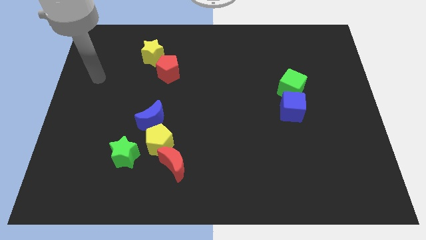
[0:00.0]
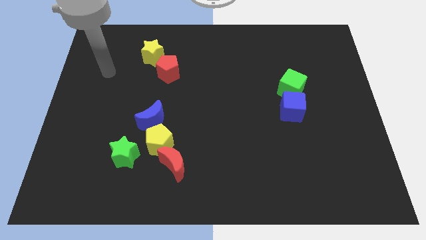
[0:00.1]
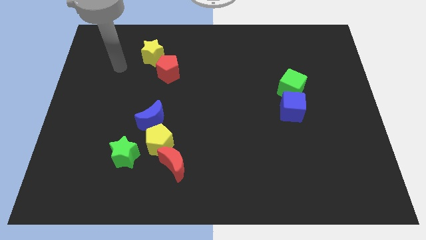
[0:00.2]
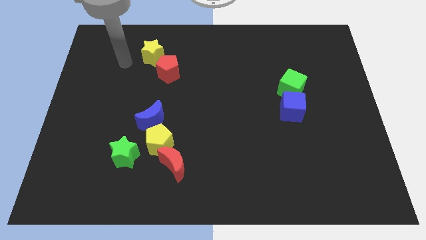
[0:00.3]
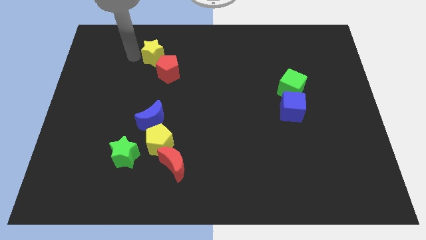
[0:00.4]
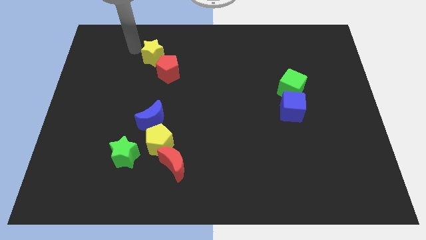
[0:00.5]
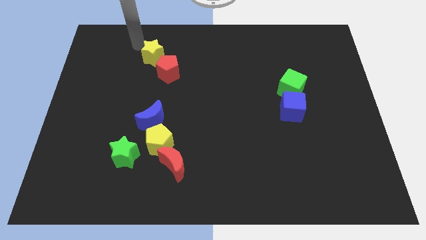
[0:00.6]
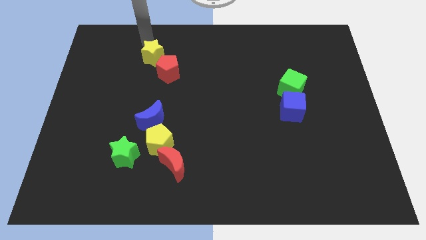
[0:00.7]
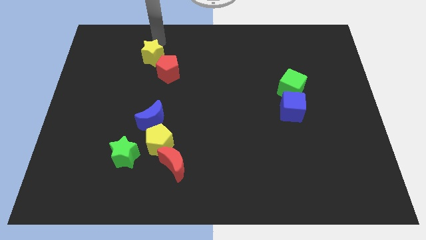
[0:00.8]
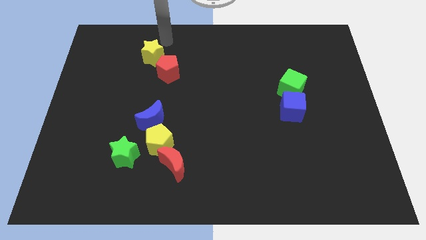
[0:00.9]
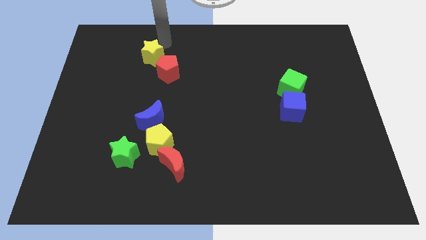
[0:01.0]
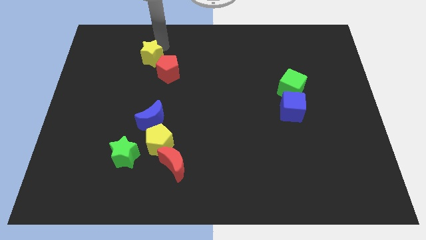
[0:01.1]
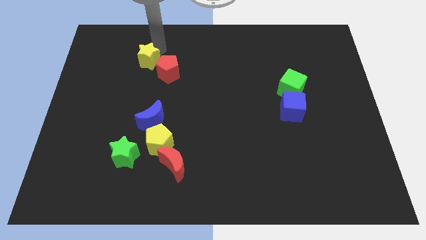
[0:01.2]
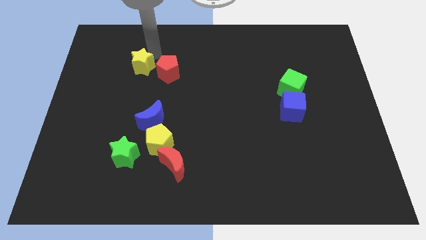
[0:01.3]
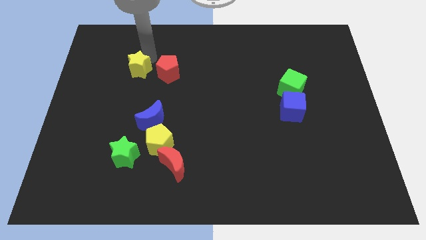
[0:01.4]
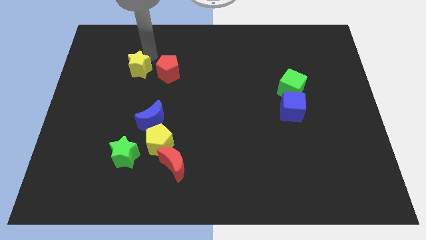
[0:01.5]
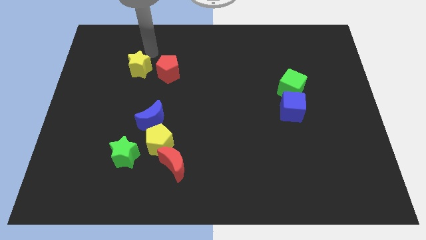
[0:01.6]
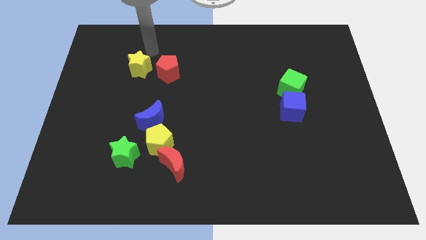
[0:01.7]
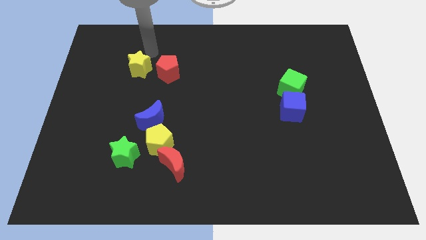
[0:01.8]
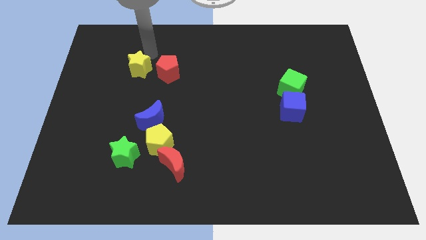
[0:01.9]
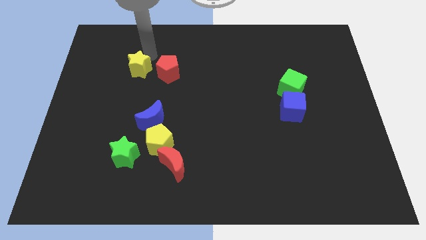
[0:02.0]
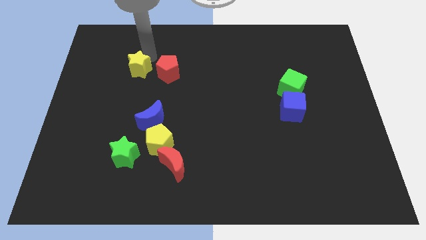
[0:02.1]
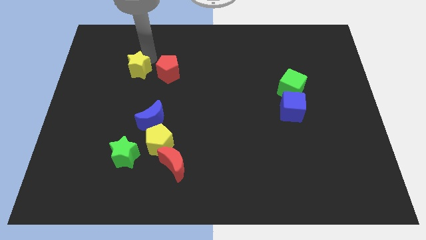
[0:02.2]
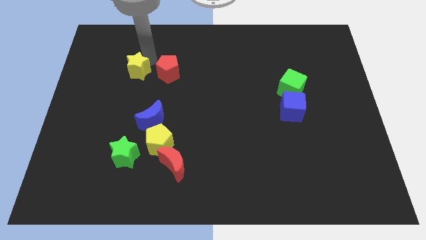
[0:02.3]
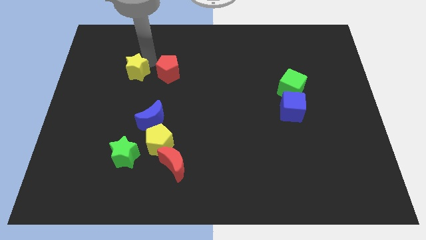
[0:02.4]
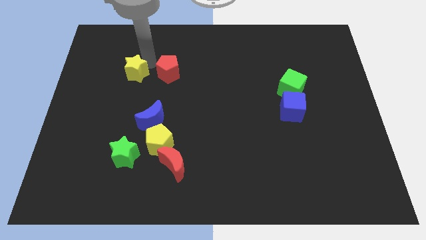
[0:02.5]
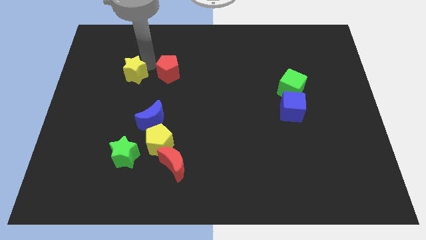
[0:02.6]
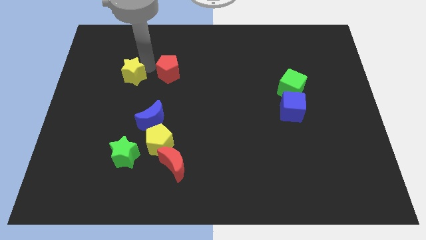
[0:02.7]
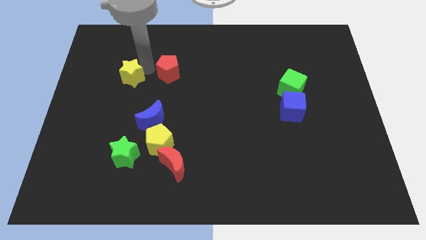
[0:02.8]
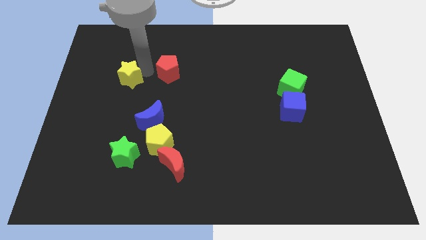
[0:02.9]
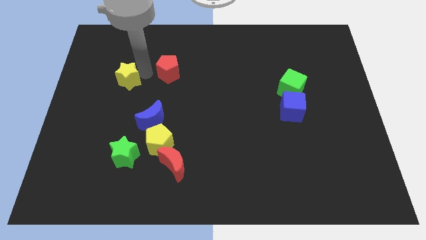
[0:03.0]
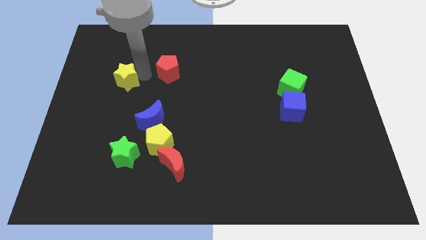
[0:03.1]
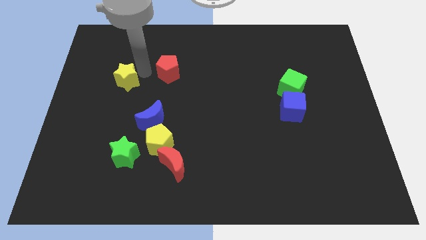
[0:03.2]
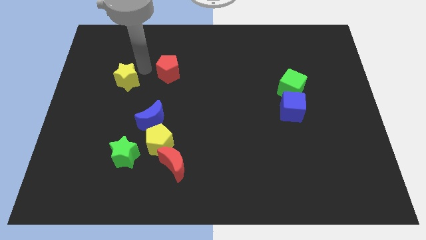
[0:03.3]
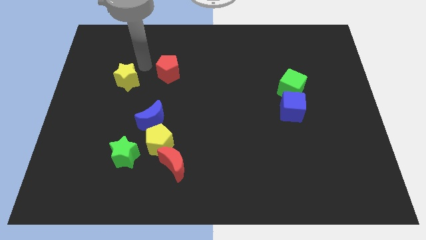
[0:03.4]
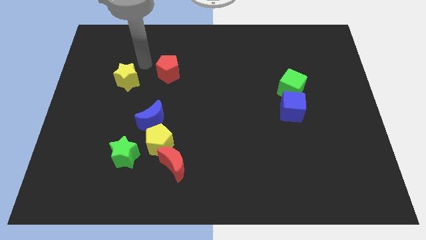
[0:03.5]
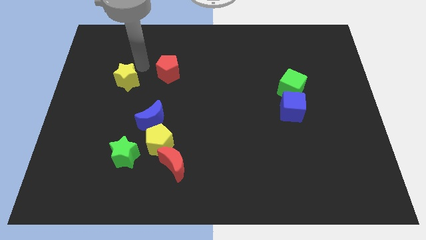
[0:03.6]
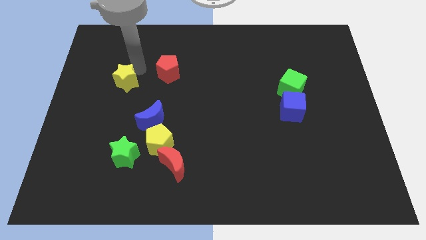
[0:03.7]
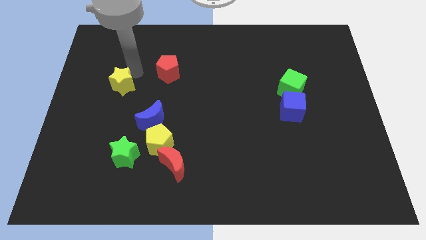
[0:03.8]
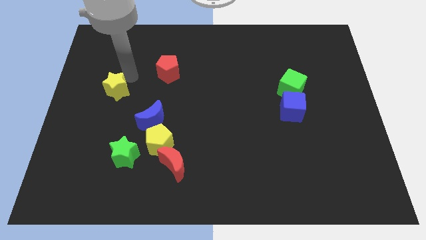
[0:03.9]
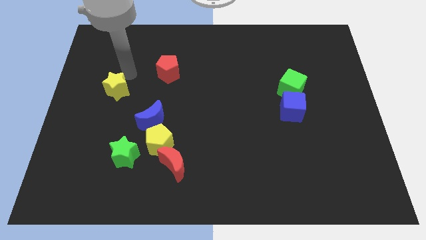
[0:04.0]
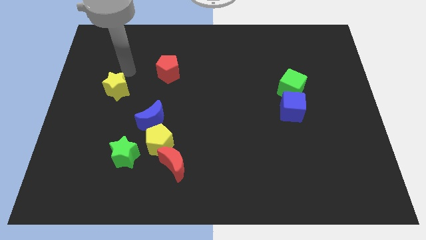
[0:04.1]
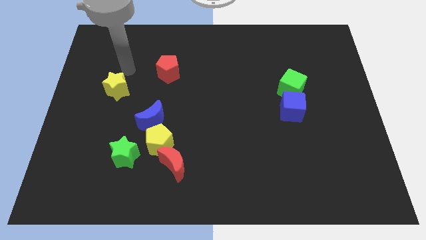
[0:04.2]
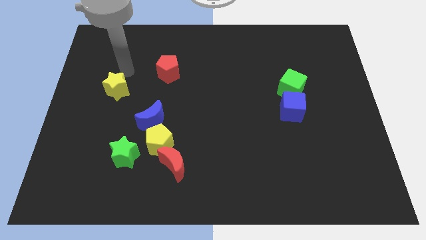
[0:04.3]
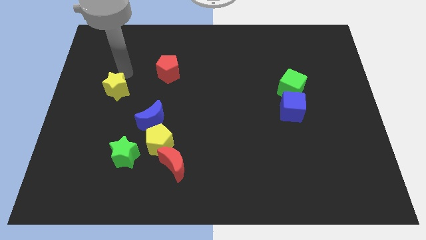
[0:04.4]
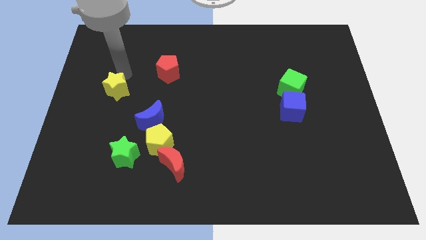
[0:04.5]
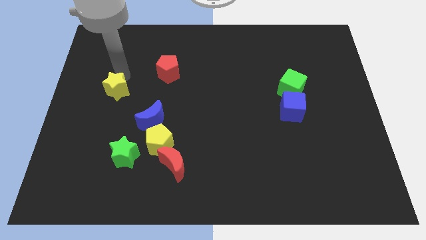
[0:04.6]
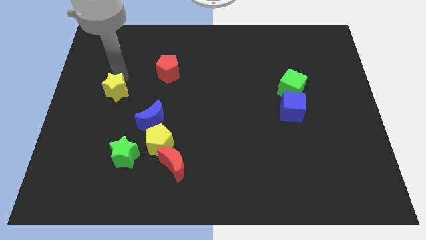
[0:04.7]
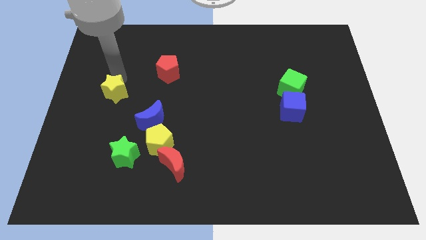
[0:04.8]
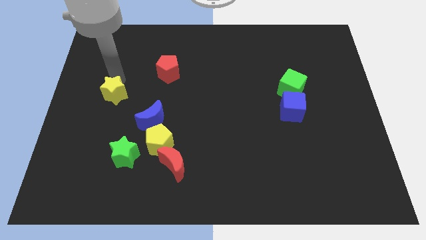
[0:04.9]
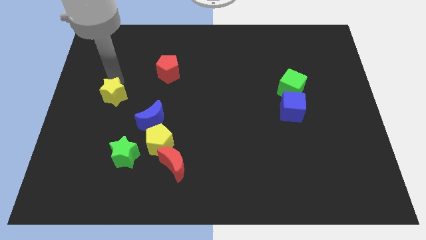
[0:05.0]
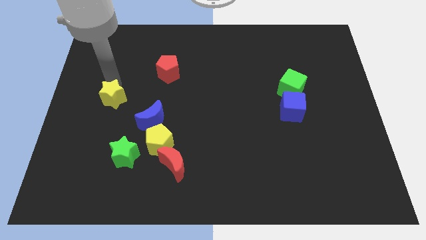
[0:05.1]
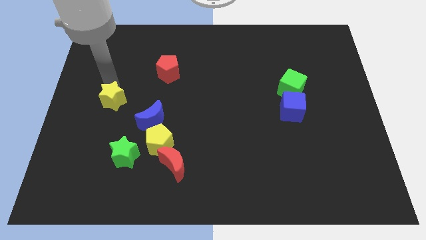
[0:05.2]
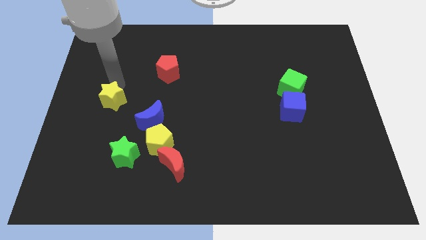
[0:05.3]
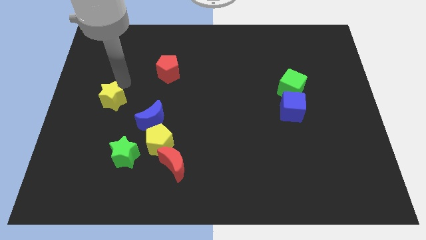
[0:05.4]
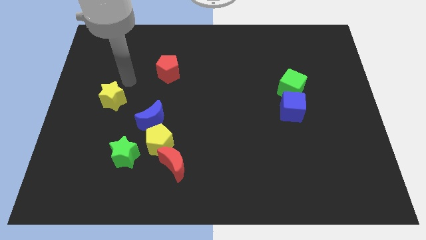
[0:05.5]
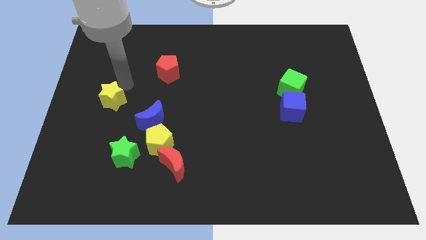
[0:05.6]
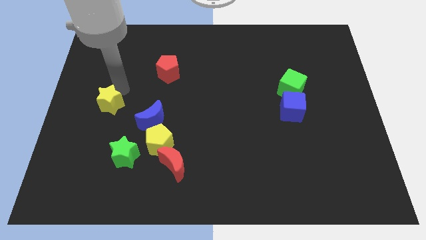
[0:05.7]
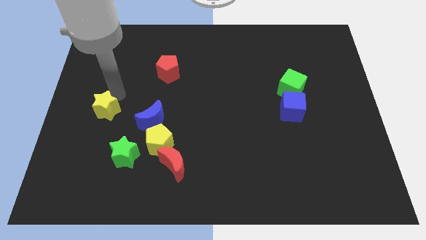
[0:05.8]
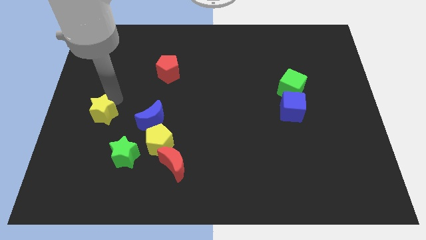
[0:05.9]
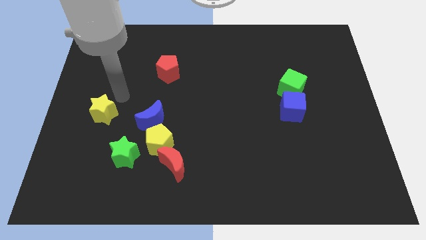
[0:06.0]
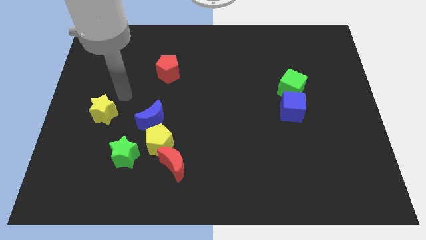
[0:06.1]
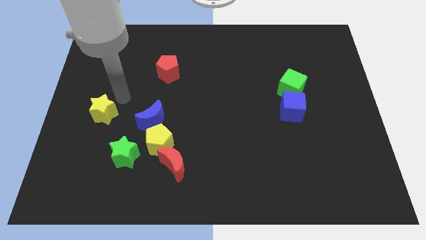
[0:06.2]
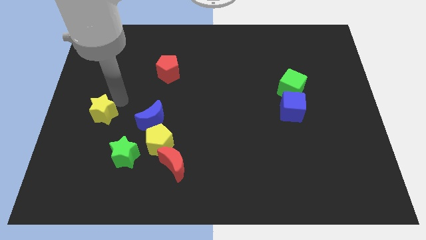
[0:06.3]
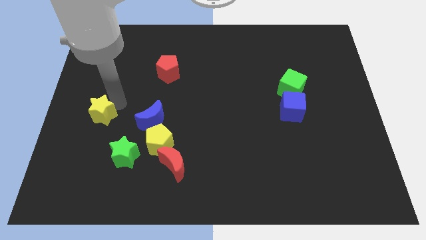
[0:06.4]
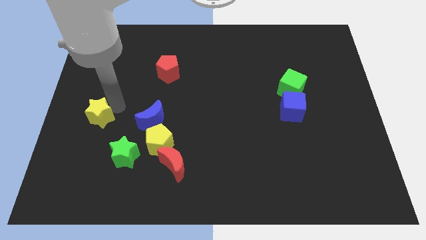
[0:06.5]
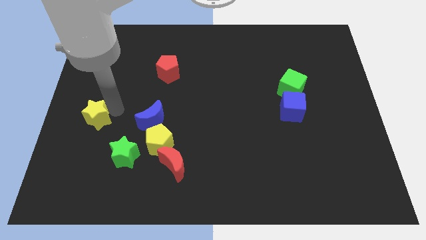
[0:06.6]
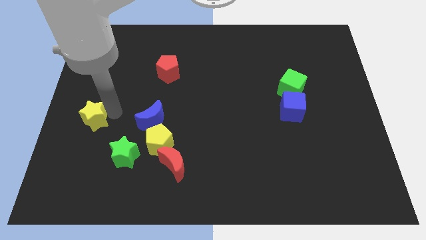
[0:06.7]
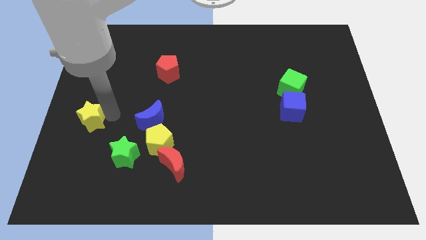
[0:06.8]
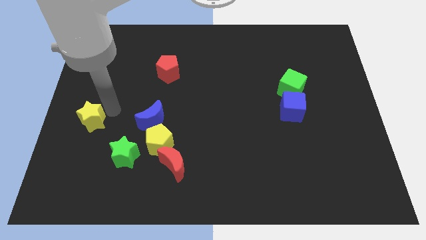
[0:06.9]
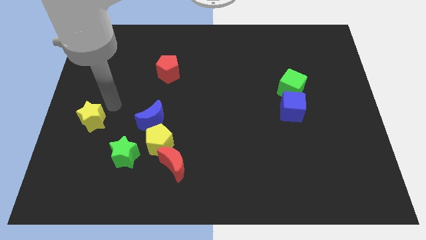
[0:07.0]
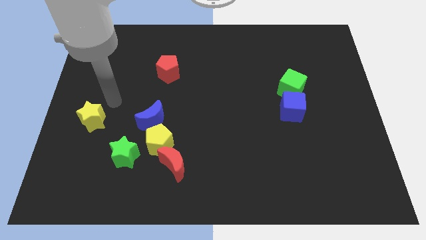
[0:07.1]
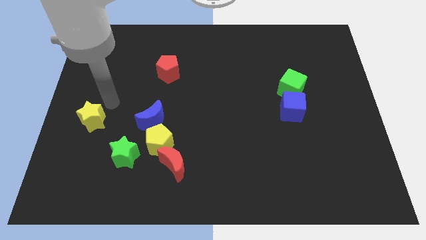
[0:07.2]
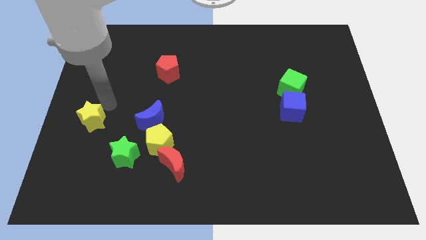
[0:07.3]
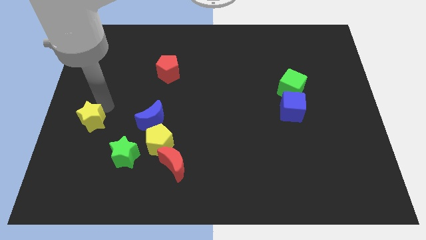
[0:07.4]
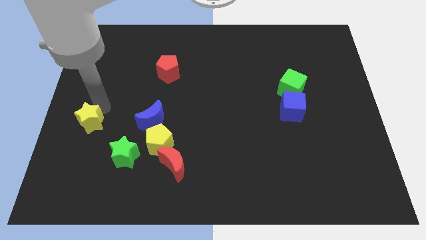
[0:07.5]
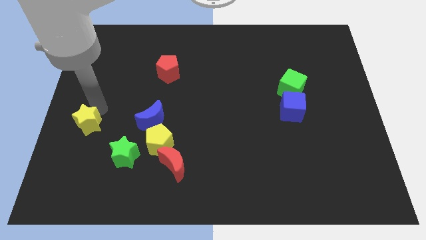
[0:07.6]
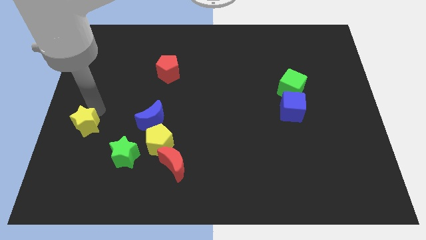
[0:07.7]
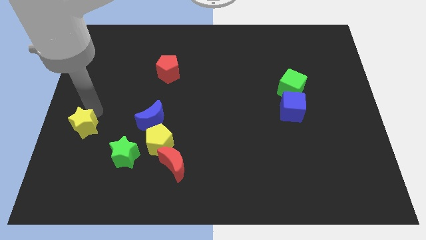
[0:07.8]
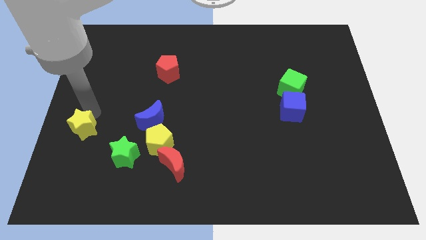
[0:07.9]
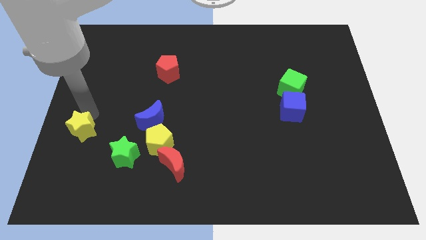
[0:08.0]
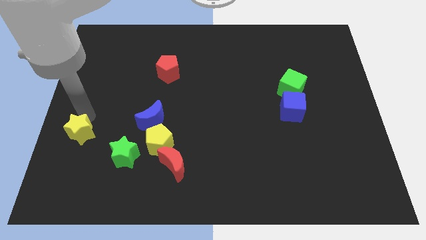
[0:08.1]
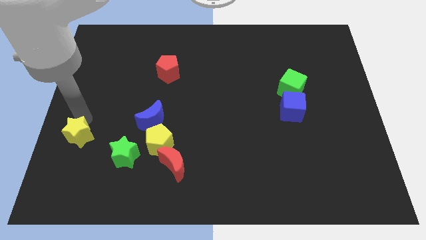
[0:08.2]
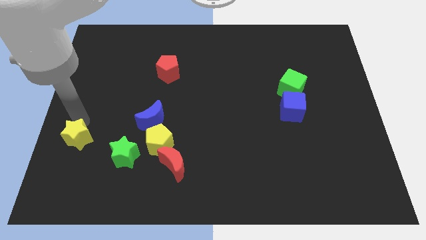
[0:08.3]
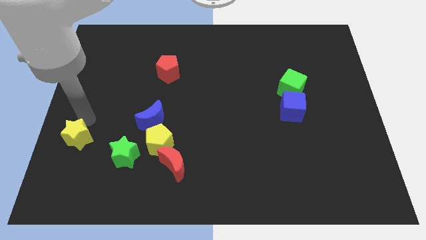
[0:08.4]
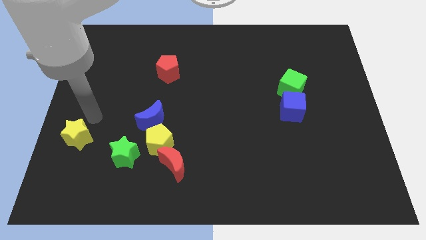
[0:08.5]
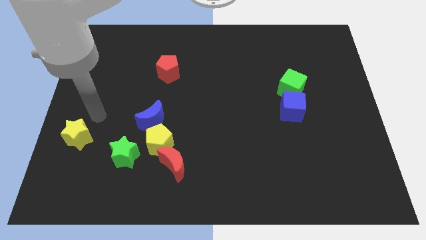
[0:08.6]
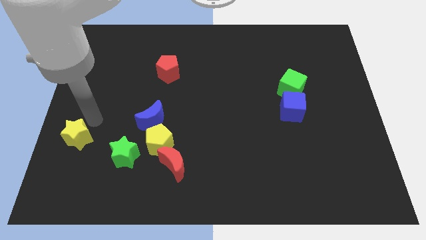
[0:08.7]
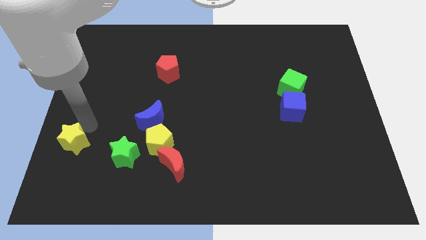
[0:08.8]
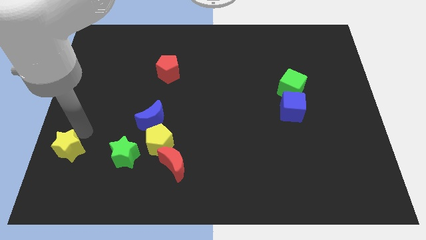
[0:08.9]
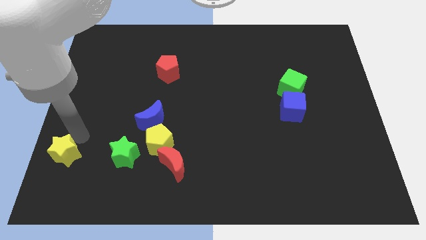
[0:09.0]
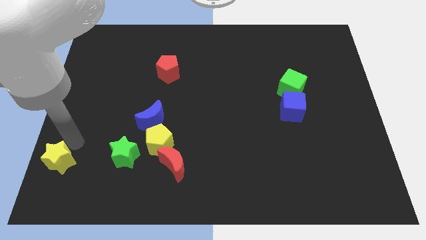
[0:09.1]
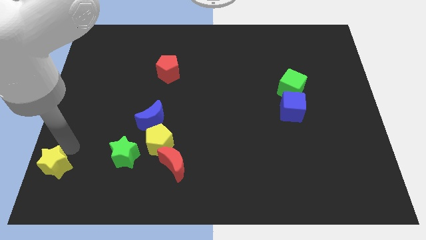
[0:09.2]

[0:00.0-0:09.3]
move the yellow star to the bottom left
